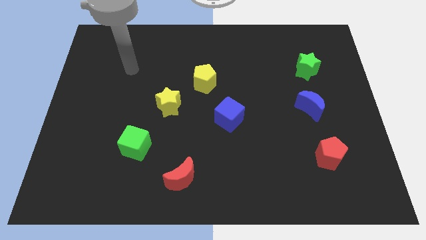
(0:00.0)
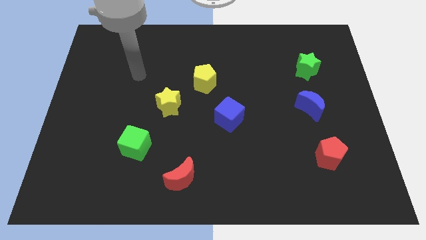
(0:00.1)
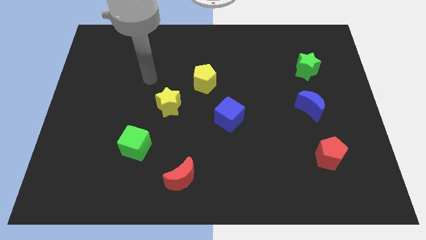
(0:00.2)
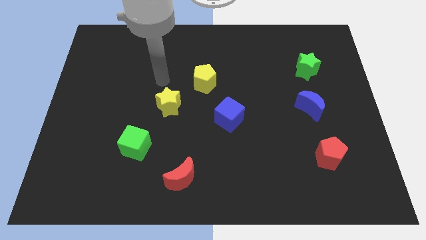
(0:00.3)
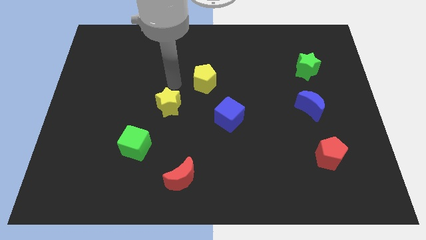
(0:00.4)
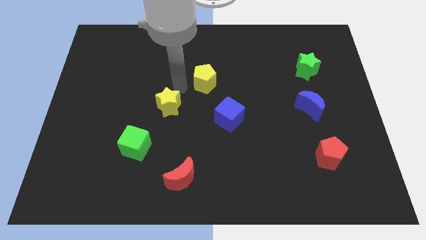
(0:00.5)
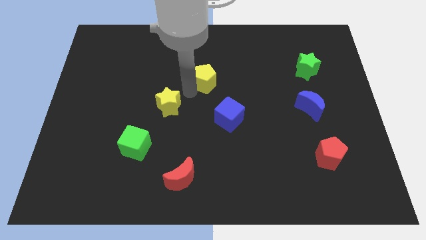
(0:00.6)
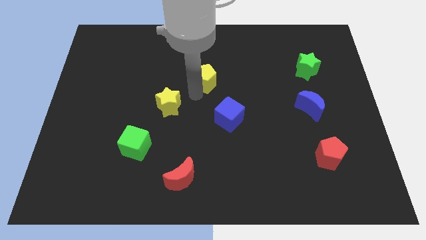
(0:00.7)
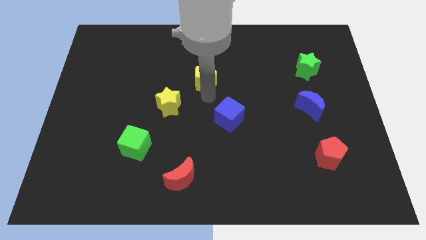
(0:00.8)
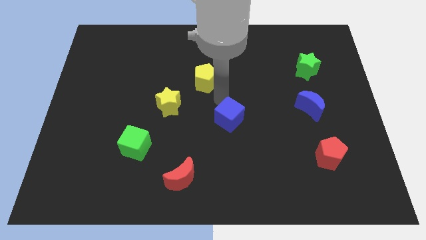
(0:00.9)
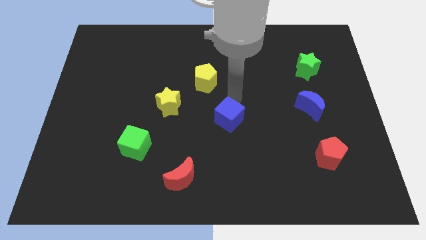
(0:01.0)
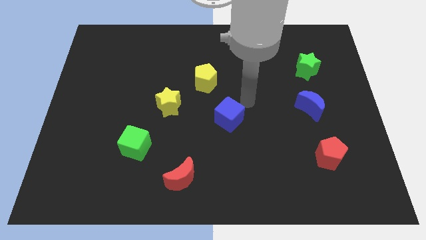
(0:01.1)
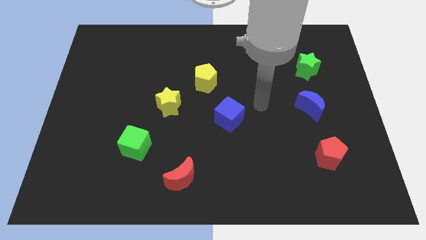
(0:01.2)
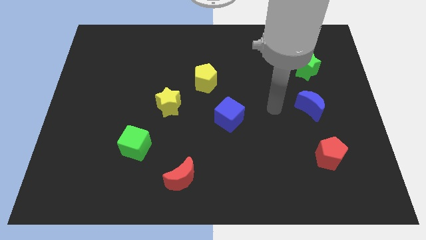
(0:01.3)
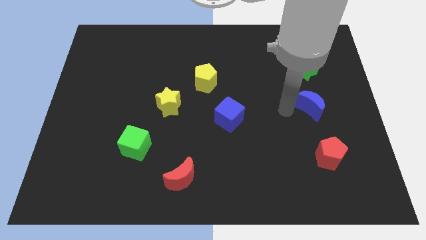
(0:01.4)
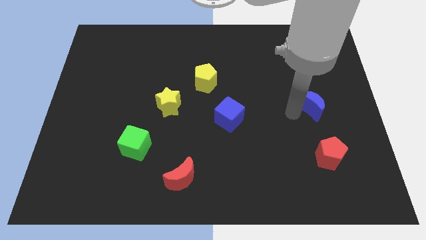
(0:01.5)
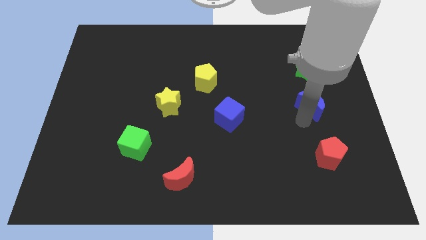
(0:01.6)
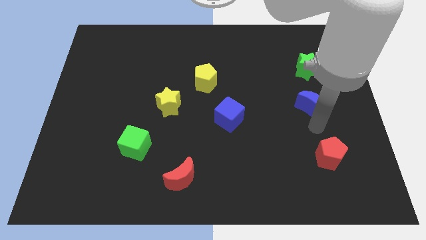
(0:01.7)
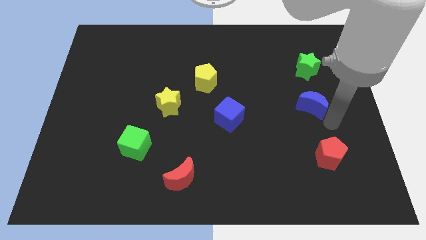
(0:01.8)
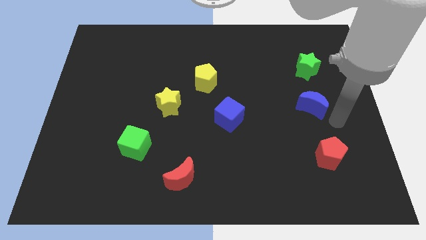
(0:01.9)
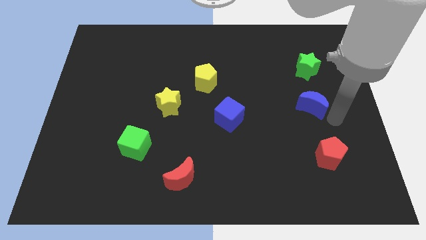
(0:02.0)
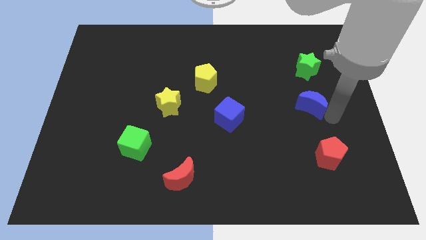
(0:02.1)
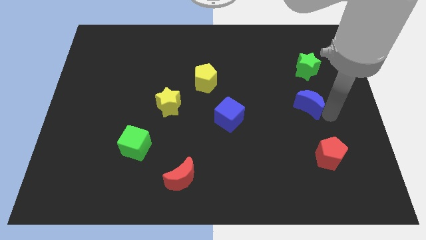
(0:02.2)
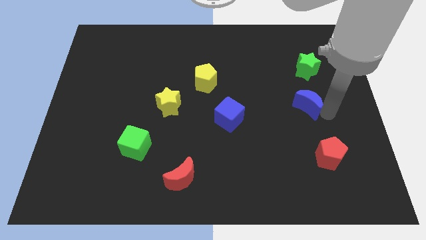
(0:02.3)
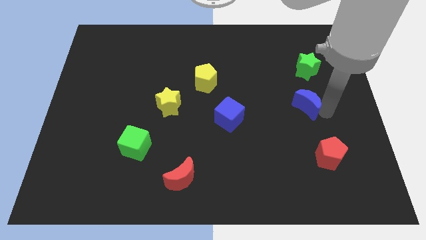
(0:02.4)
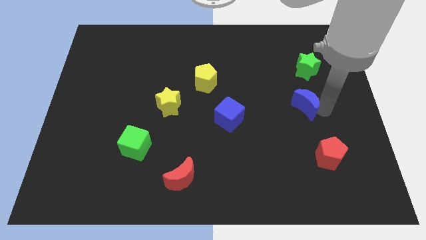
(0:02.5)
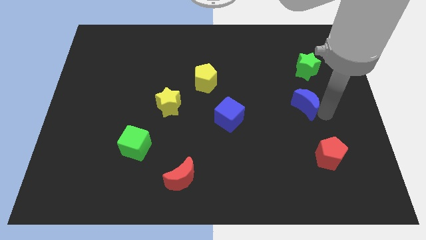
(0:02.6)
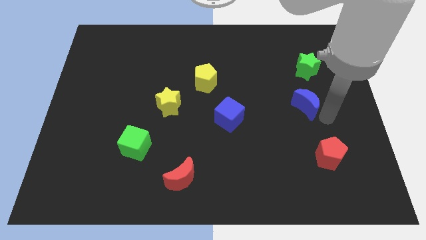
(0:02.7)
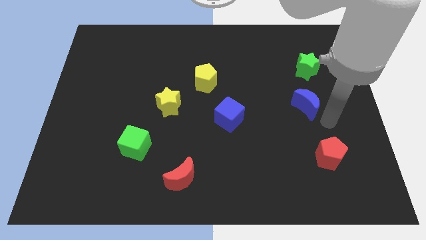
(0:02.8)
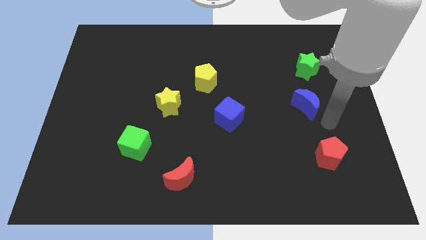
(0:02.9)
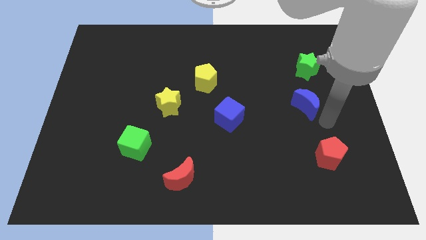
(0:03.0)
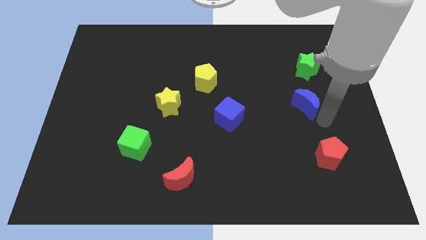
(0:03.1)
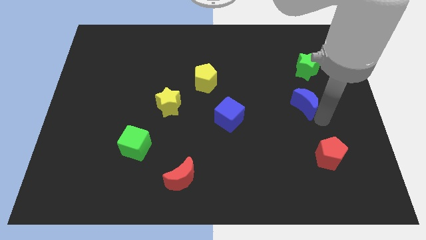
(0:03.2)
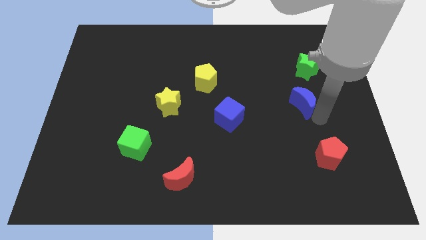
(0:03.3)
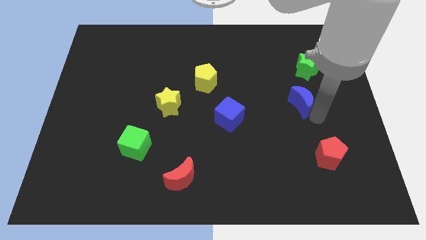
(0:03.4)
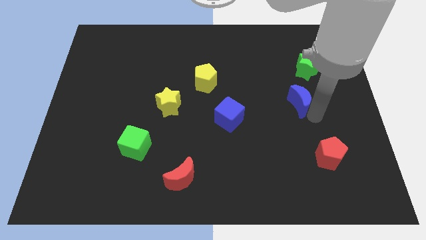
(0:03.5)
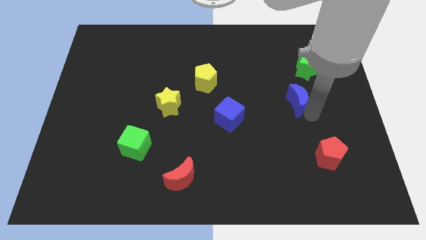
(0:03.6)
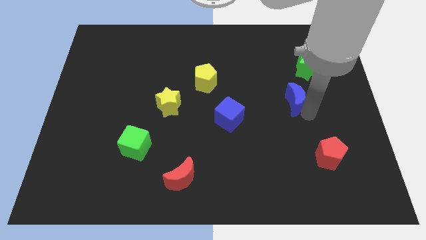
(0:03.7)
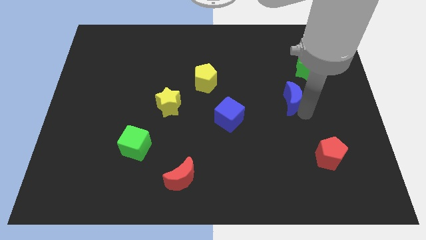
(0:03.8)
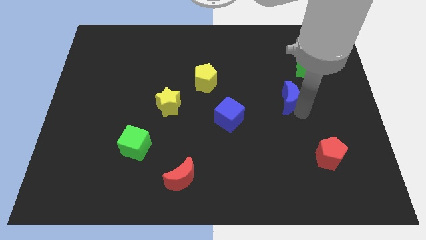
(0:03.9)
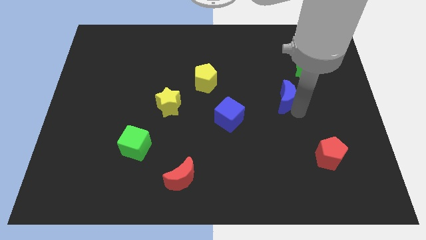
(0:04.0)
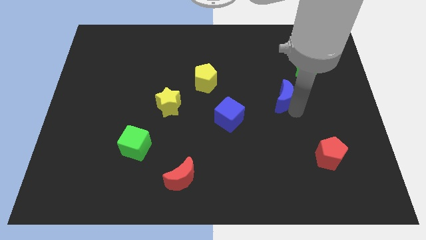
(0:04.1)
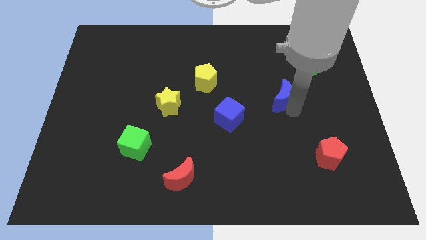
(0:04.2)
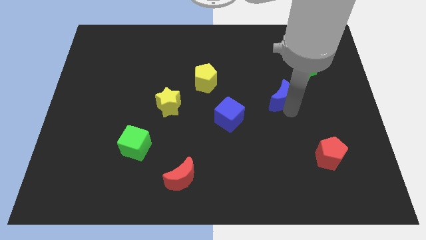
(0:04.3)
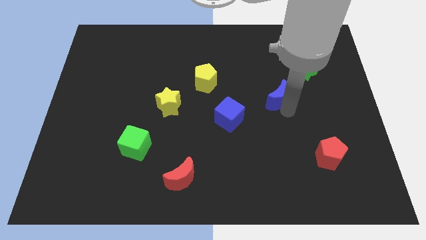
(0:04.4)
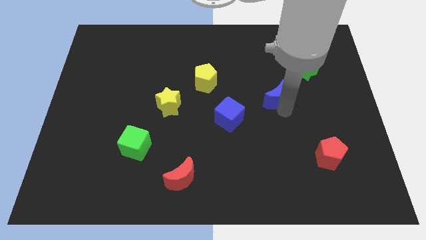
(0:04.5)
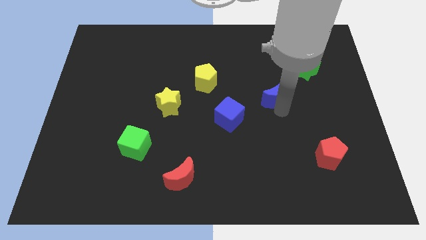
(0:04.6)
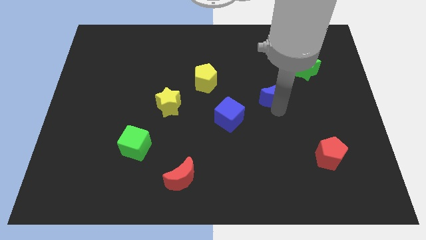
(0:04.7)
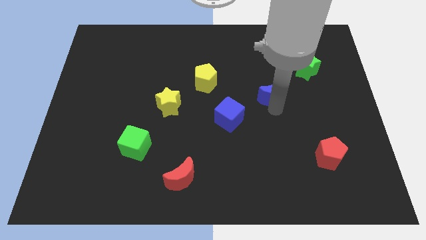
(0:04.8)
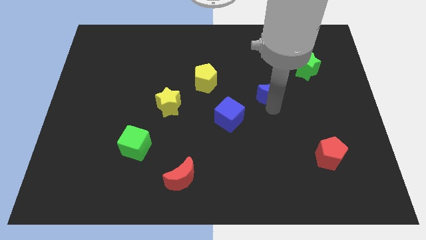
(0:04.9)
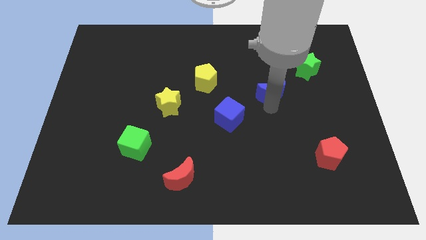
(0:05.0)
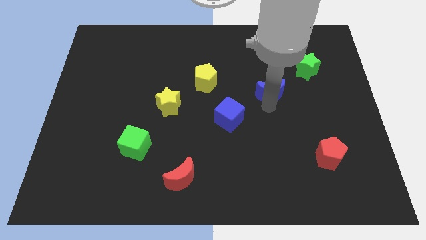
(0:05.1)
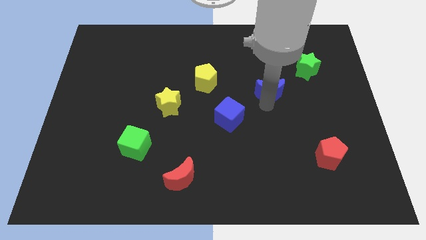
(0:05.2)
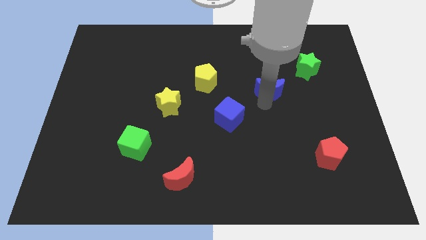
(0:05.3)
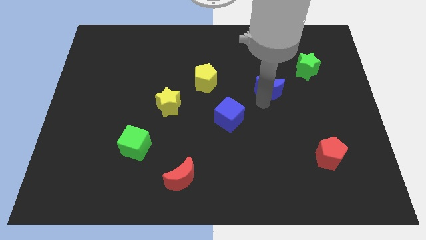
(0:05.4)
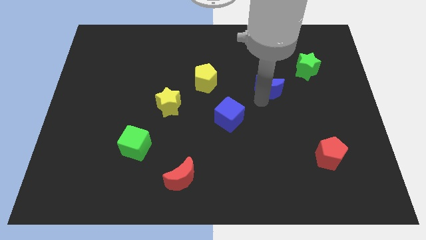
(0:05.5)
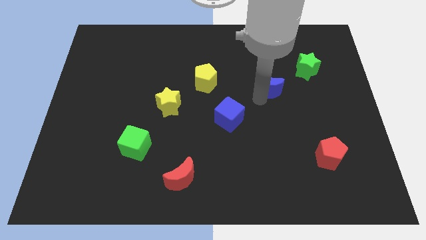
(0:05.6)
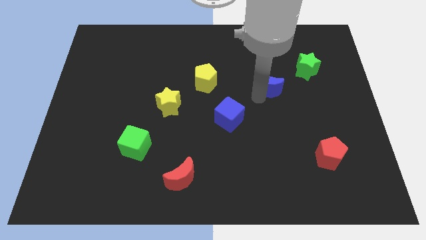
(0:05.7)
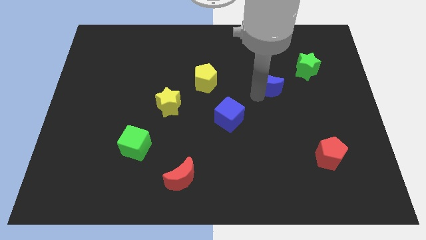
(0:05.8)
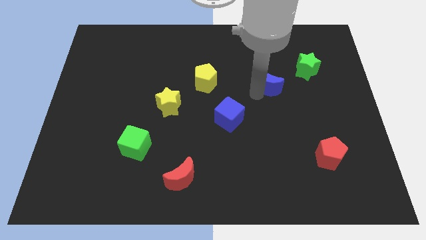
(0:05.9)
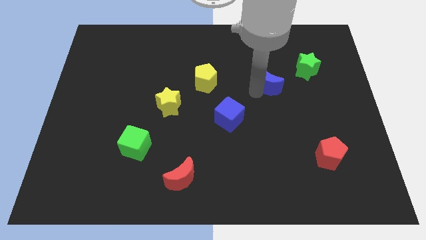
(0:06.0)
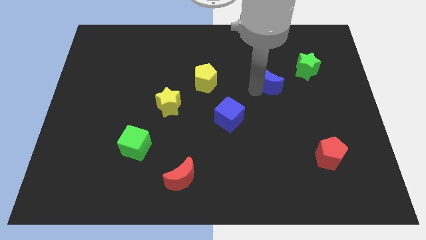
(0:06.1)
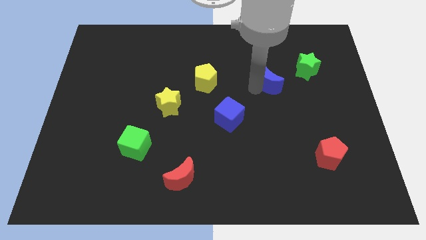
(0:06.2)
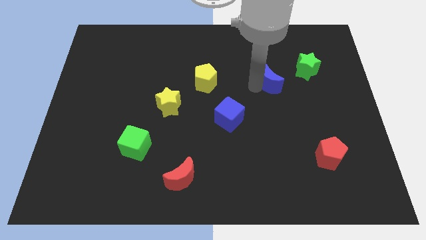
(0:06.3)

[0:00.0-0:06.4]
slide the blue moon left of the green star

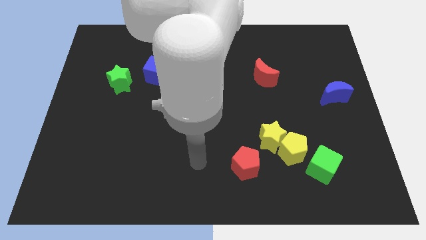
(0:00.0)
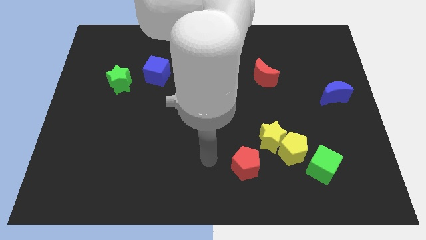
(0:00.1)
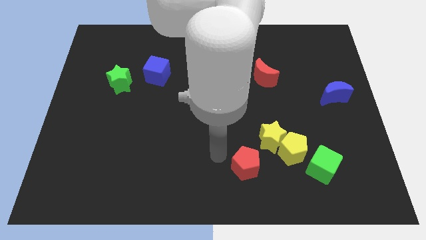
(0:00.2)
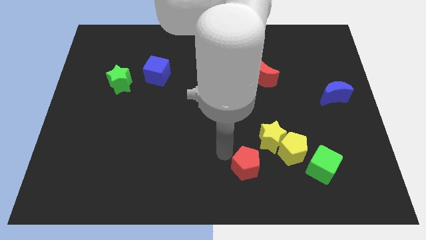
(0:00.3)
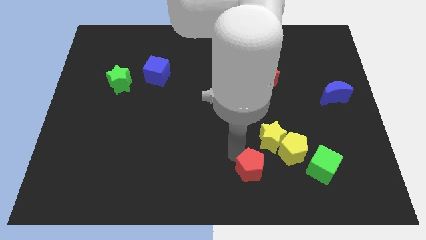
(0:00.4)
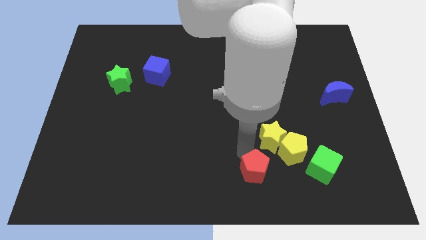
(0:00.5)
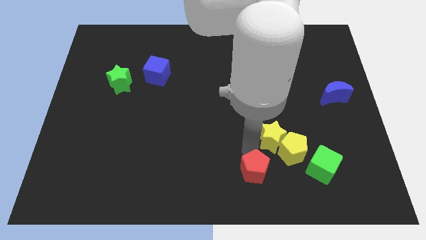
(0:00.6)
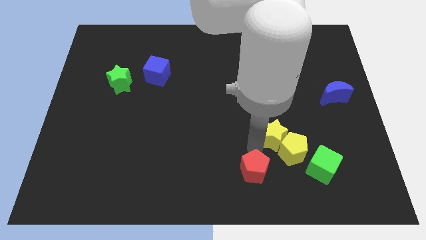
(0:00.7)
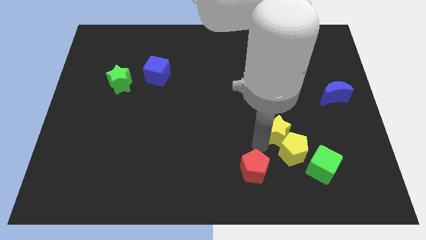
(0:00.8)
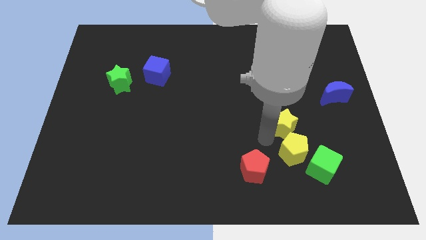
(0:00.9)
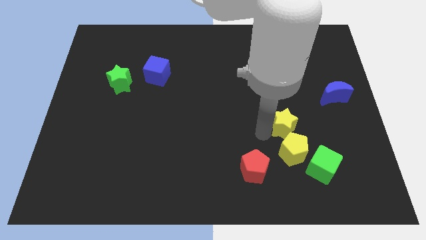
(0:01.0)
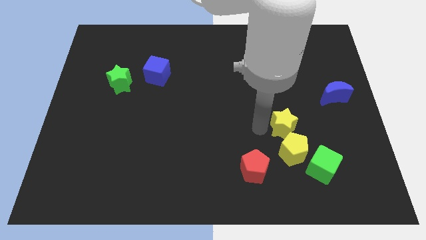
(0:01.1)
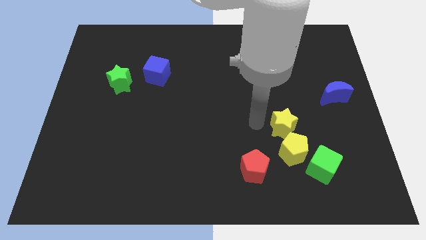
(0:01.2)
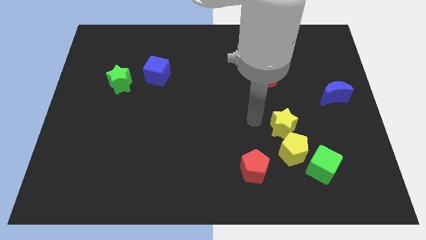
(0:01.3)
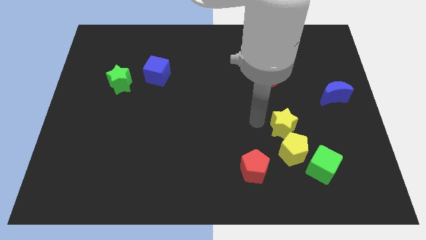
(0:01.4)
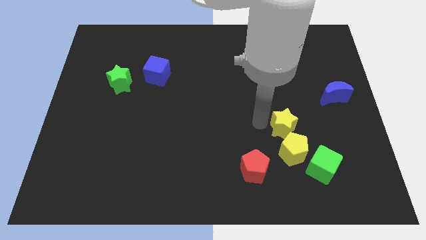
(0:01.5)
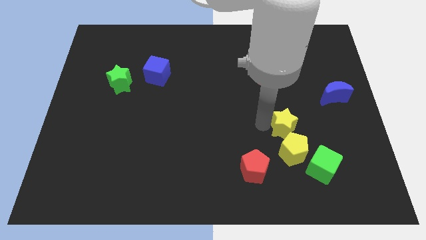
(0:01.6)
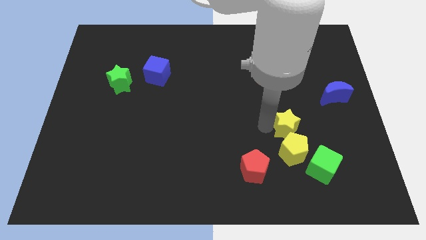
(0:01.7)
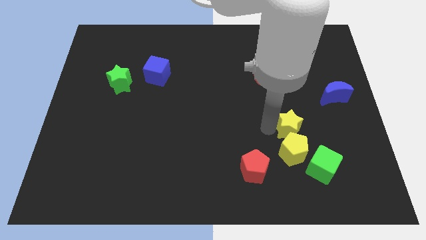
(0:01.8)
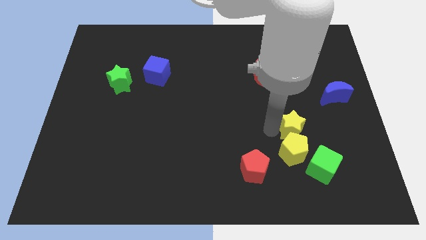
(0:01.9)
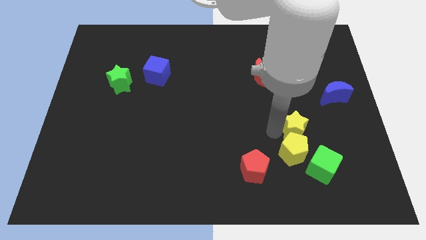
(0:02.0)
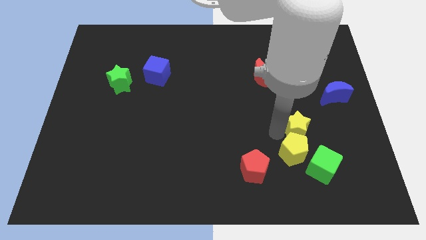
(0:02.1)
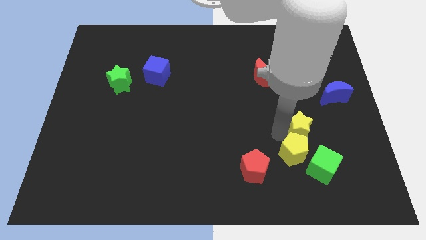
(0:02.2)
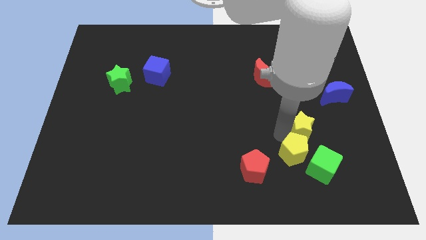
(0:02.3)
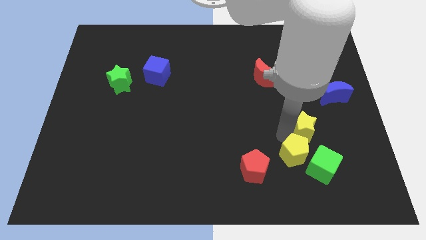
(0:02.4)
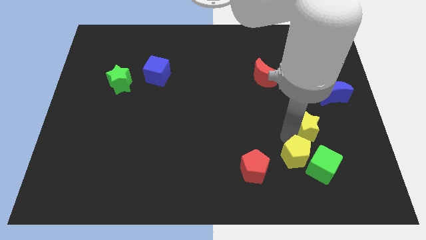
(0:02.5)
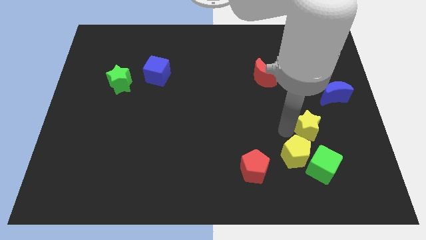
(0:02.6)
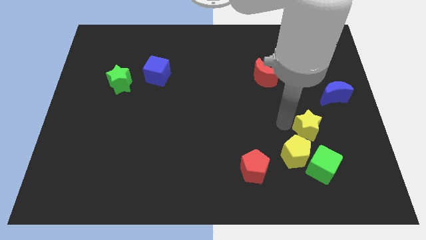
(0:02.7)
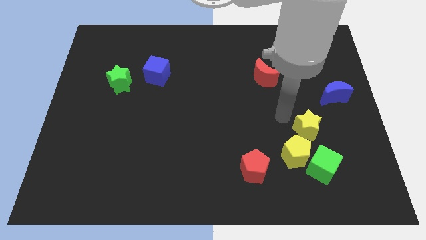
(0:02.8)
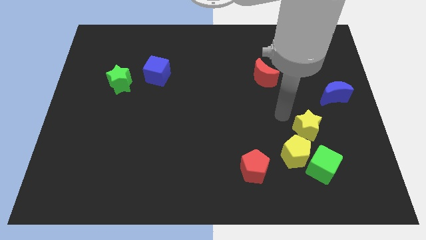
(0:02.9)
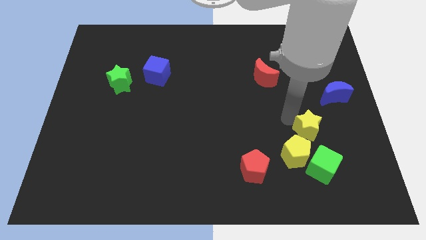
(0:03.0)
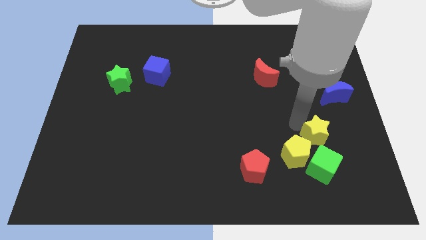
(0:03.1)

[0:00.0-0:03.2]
move the yellow star to the right side of the yellow pentagon
